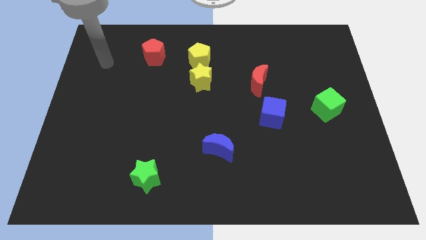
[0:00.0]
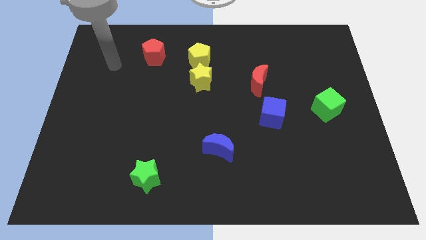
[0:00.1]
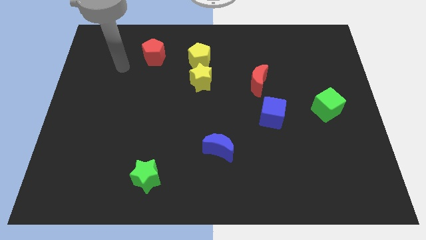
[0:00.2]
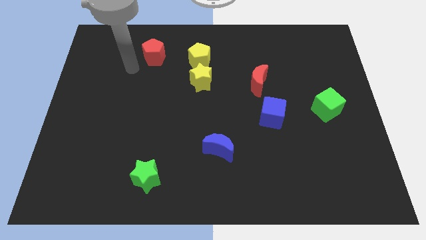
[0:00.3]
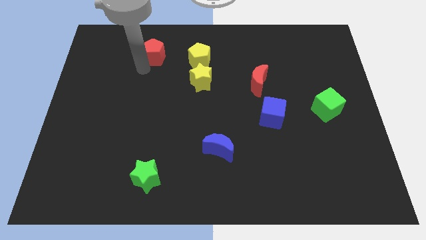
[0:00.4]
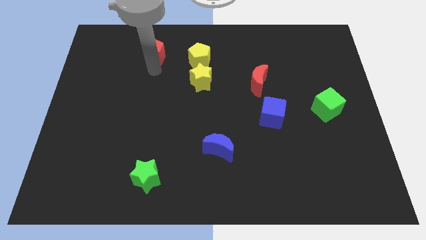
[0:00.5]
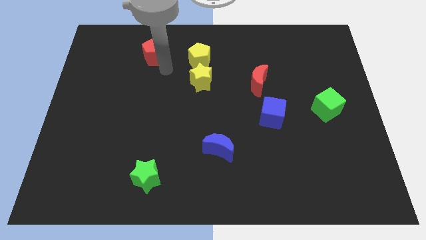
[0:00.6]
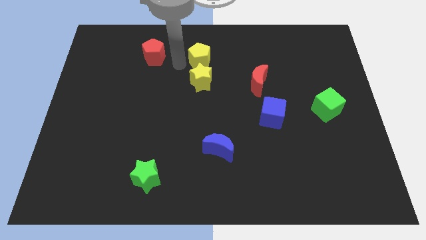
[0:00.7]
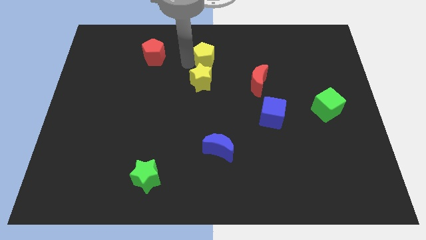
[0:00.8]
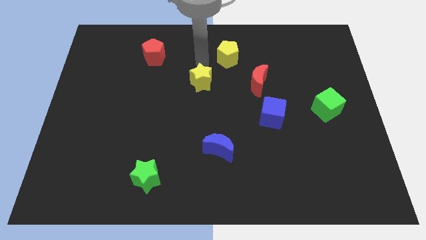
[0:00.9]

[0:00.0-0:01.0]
separate the yellow star from the yellow pentagon

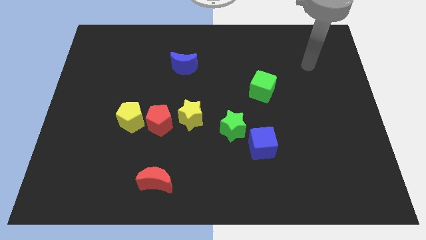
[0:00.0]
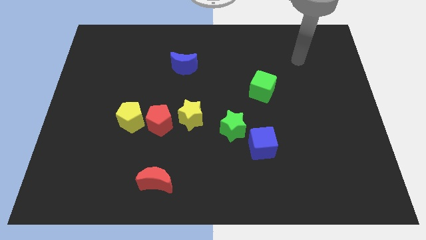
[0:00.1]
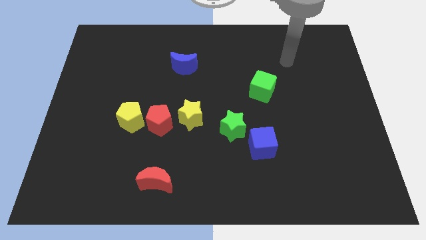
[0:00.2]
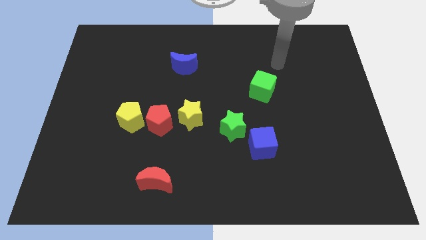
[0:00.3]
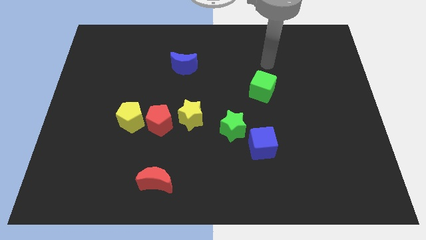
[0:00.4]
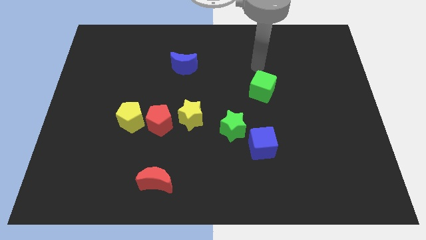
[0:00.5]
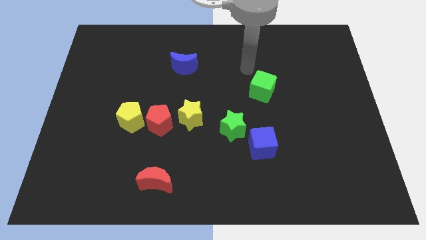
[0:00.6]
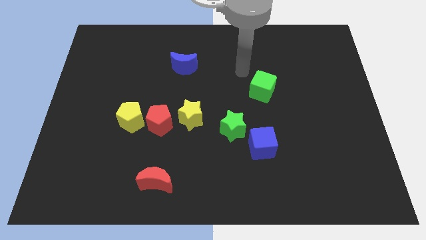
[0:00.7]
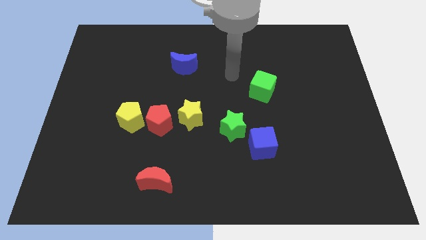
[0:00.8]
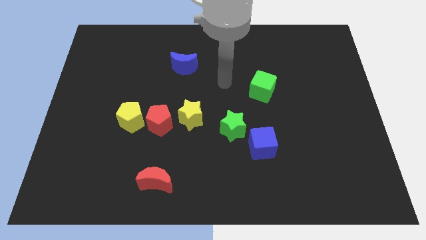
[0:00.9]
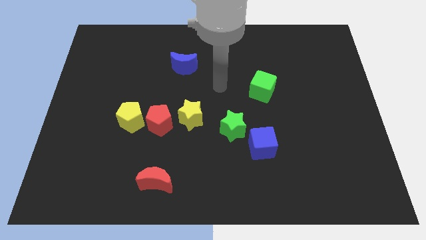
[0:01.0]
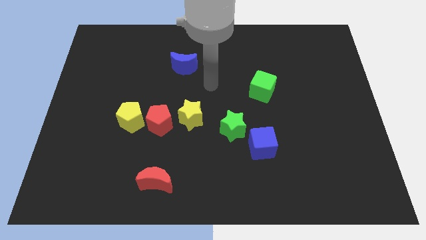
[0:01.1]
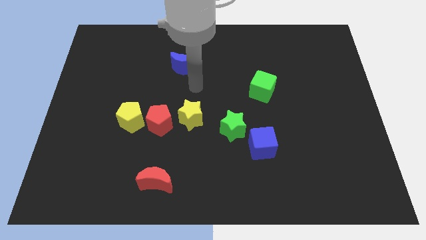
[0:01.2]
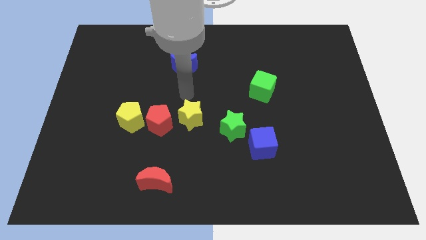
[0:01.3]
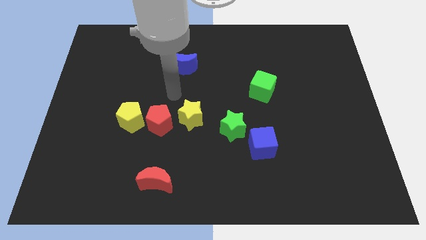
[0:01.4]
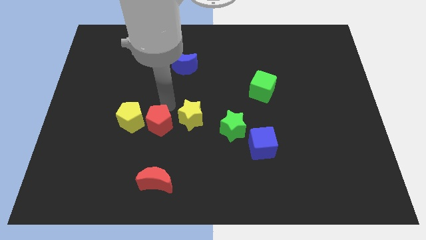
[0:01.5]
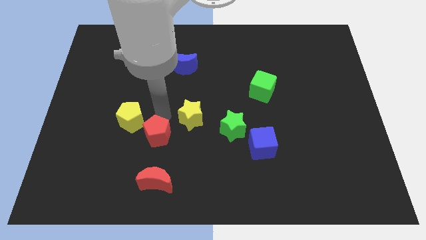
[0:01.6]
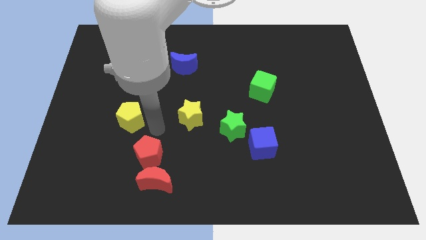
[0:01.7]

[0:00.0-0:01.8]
separate the yellow pentagon from the red pentagon

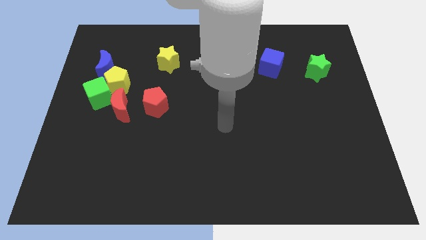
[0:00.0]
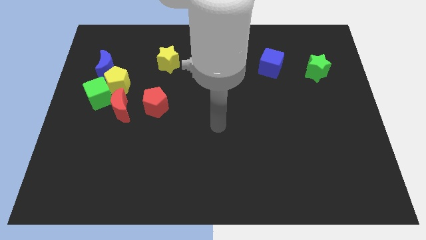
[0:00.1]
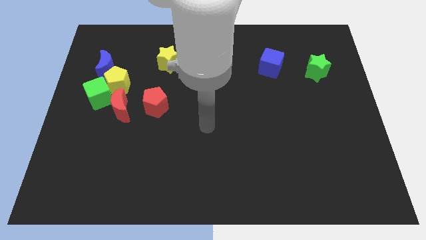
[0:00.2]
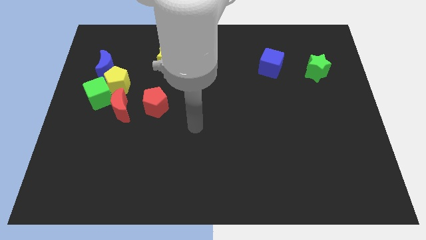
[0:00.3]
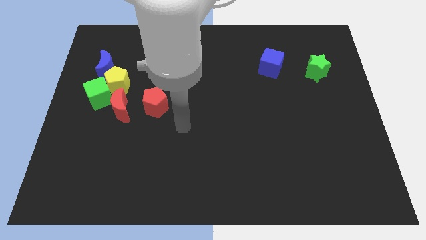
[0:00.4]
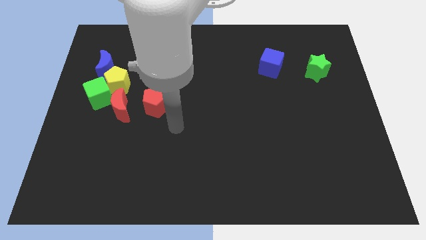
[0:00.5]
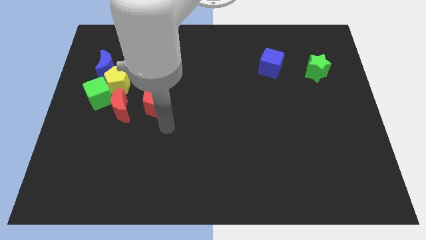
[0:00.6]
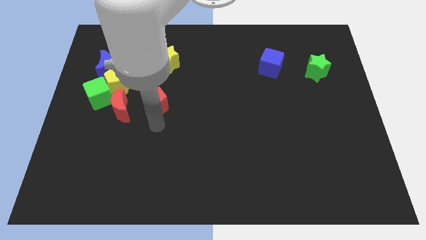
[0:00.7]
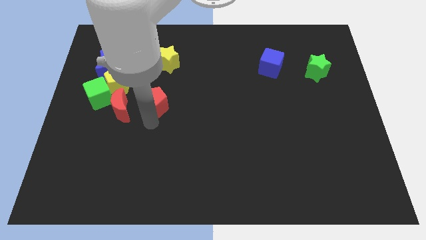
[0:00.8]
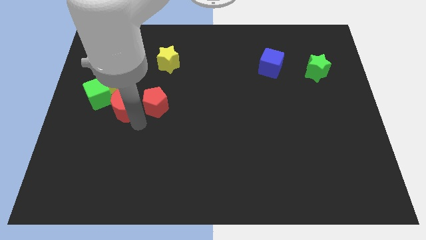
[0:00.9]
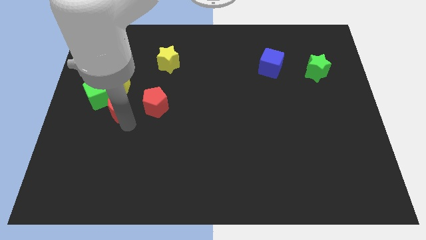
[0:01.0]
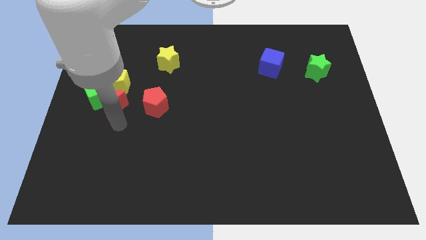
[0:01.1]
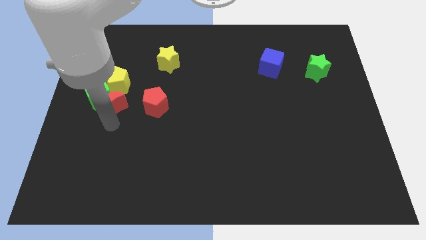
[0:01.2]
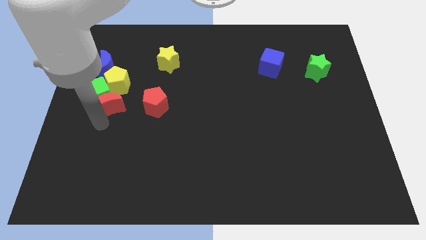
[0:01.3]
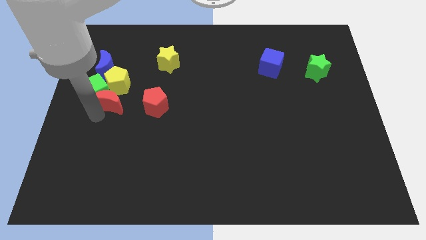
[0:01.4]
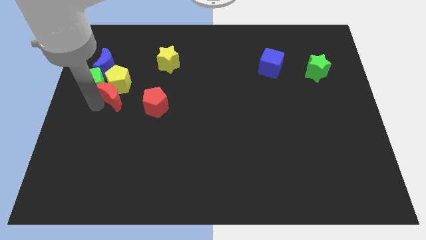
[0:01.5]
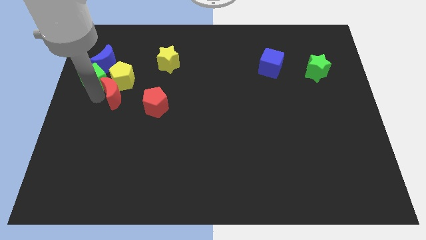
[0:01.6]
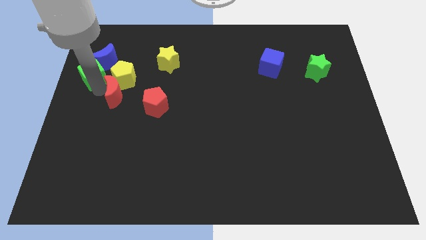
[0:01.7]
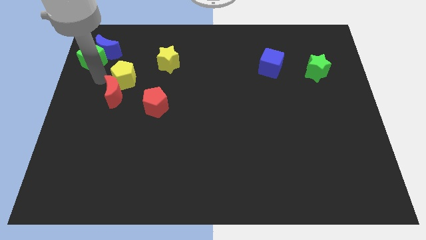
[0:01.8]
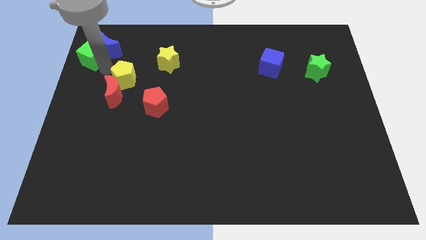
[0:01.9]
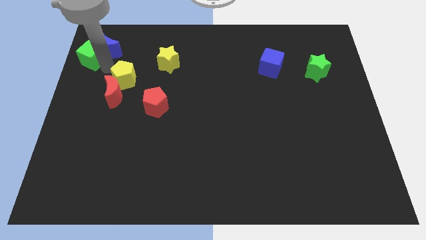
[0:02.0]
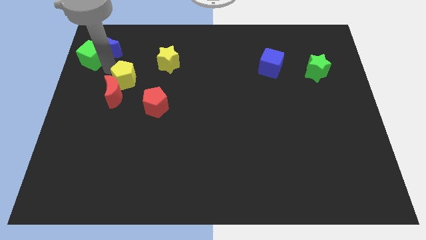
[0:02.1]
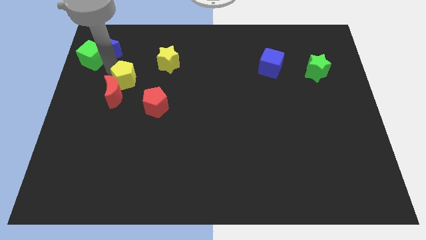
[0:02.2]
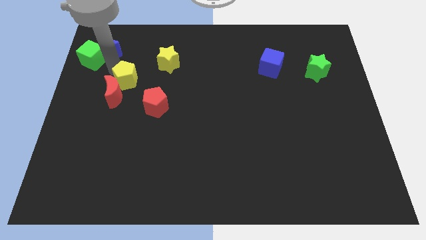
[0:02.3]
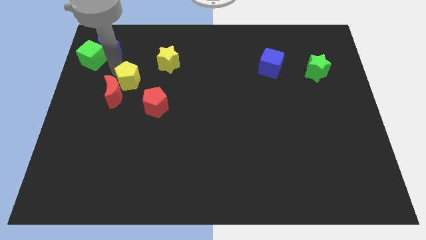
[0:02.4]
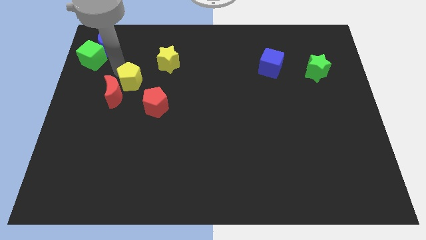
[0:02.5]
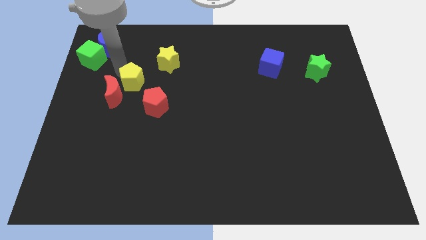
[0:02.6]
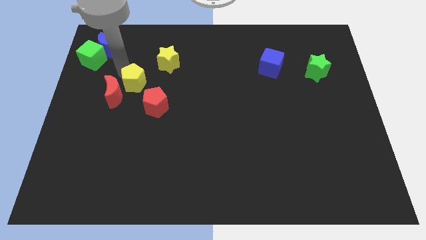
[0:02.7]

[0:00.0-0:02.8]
move the yellow pentagon away from the green cube, blue moon, and red moon

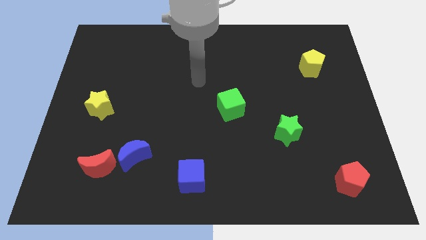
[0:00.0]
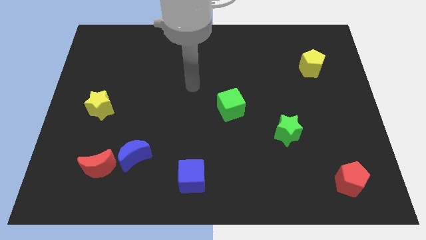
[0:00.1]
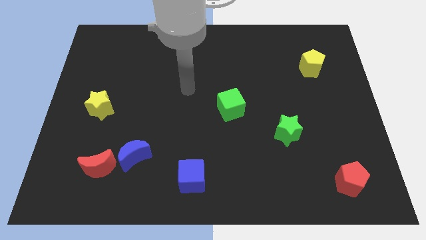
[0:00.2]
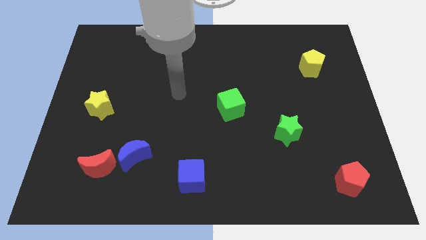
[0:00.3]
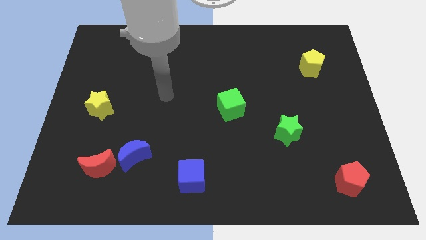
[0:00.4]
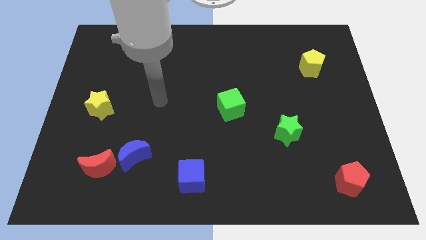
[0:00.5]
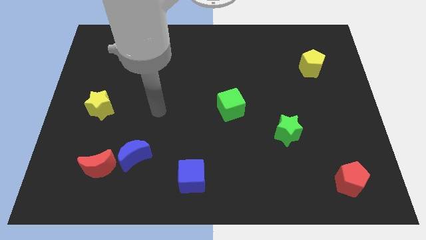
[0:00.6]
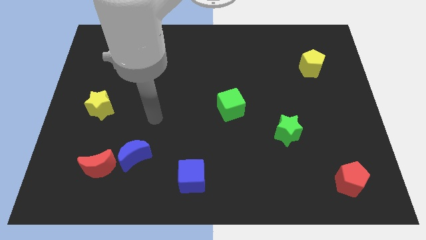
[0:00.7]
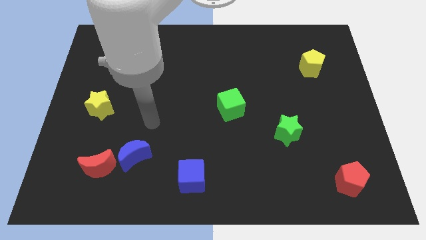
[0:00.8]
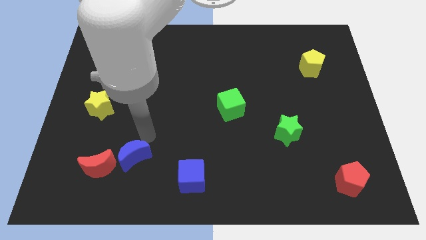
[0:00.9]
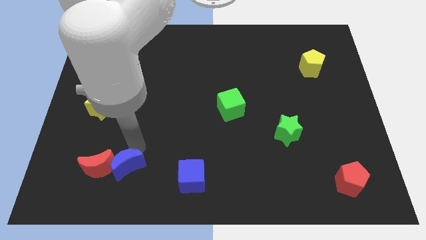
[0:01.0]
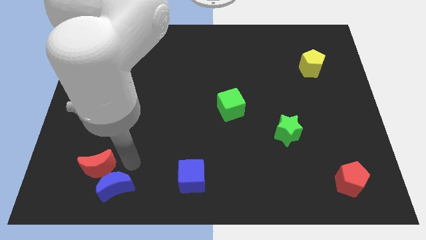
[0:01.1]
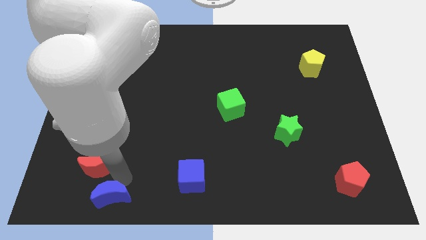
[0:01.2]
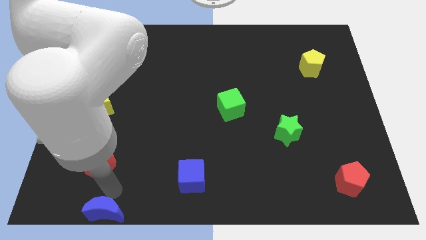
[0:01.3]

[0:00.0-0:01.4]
move the red moon away from the blue moon

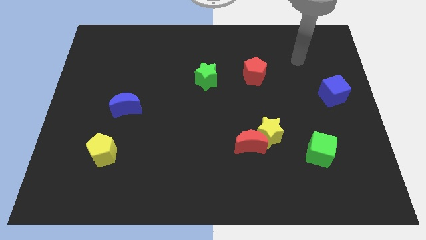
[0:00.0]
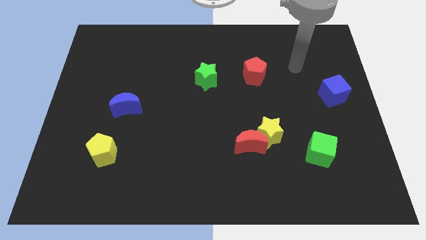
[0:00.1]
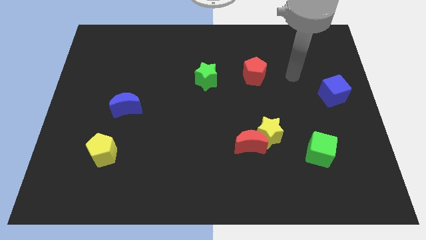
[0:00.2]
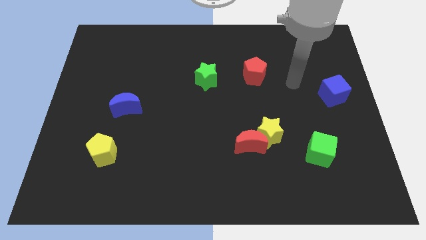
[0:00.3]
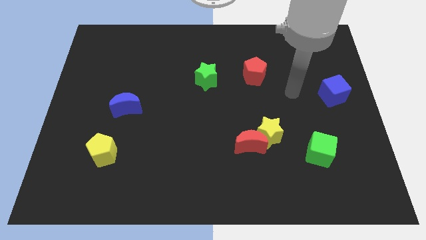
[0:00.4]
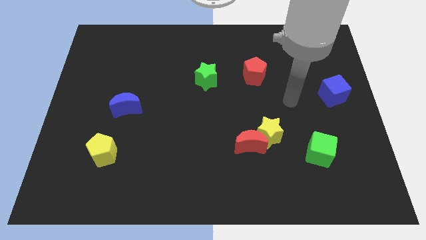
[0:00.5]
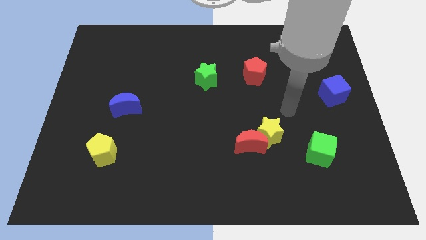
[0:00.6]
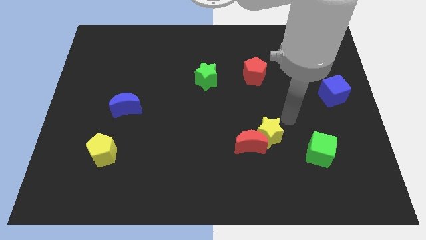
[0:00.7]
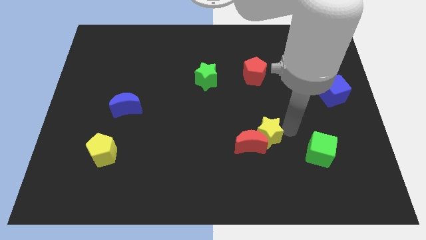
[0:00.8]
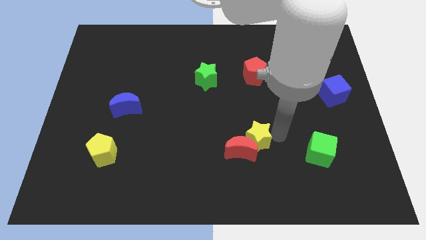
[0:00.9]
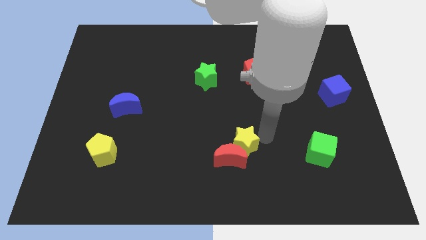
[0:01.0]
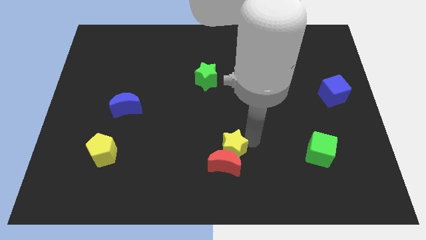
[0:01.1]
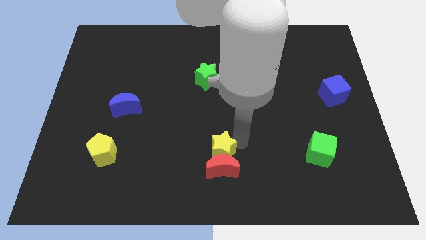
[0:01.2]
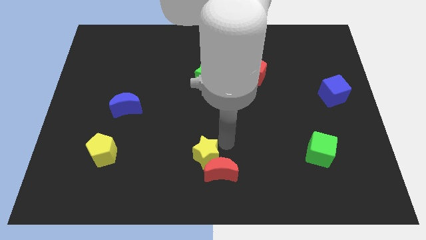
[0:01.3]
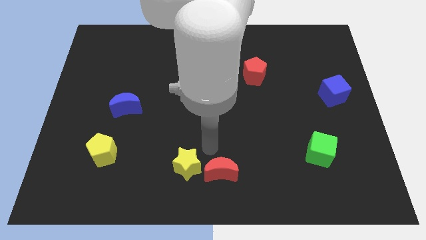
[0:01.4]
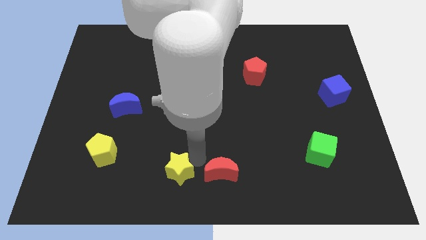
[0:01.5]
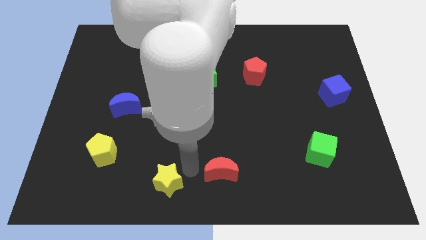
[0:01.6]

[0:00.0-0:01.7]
pull the red moon apart from the yellow star

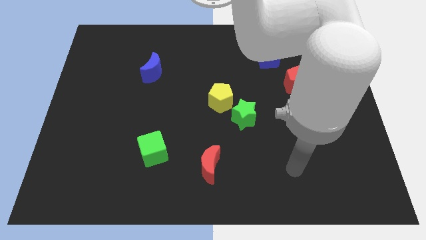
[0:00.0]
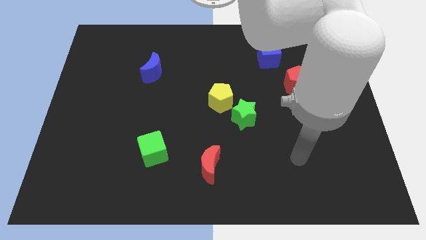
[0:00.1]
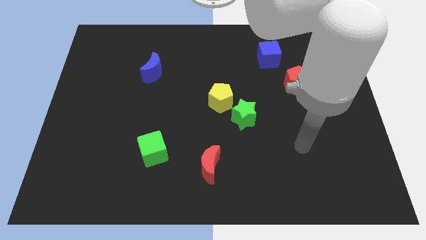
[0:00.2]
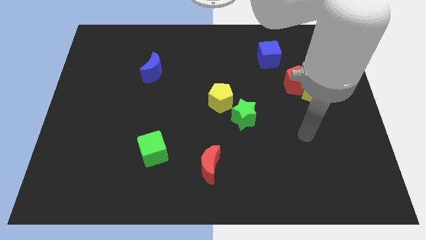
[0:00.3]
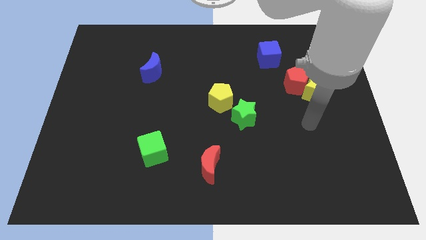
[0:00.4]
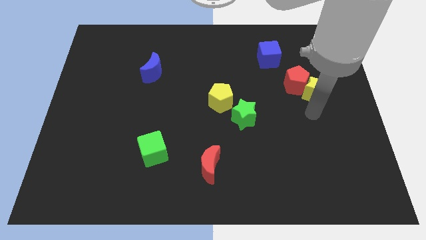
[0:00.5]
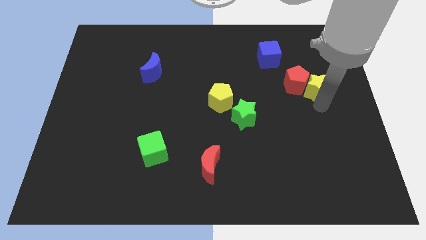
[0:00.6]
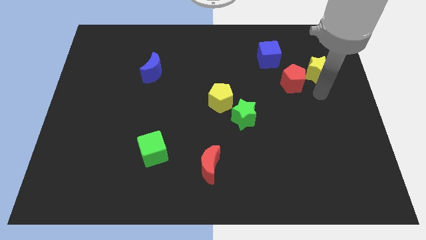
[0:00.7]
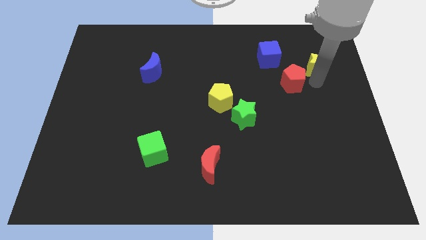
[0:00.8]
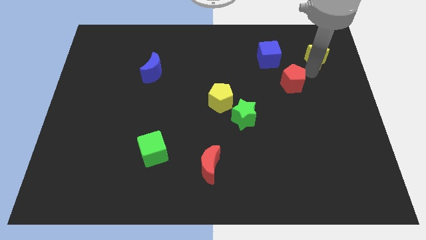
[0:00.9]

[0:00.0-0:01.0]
pull the red pentagon apart from the yellow star
